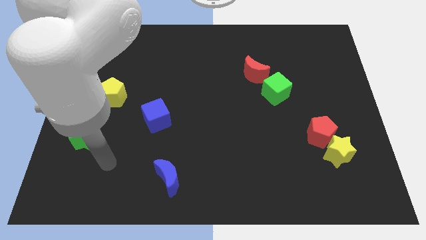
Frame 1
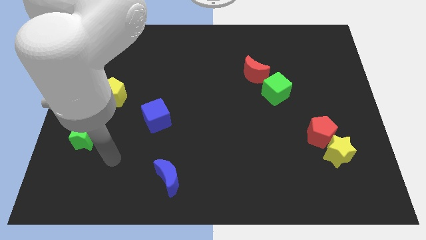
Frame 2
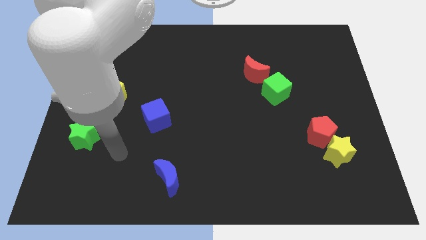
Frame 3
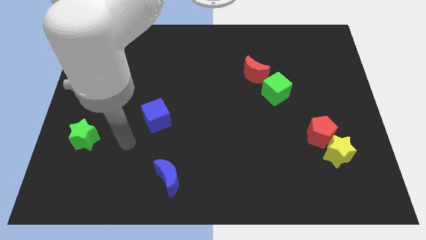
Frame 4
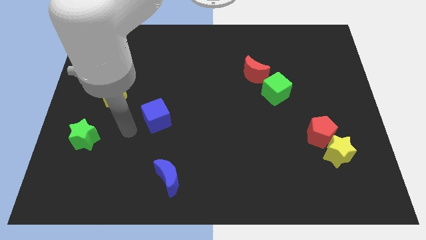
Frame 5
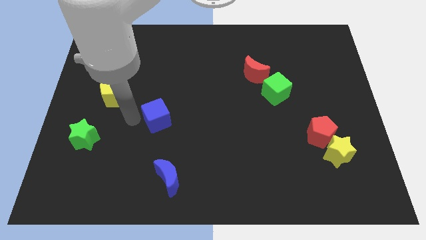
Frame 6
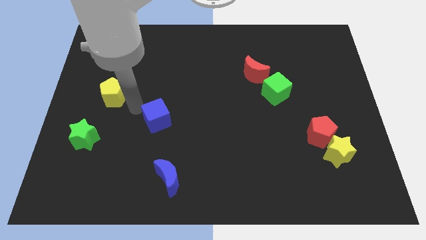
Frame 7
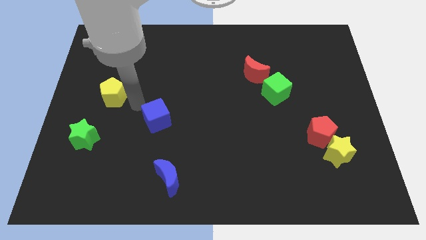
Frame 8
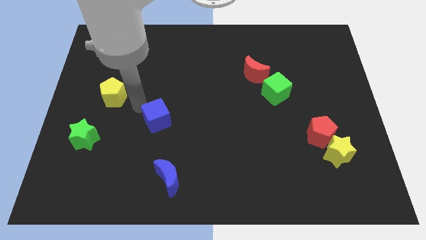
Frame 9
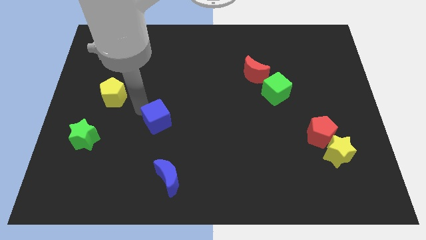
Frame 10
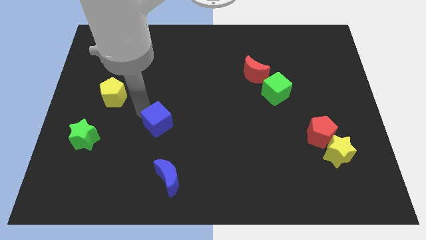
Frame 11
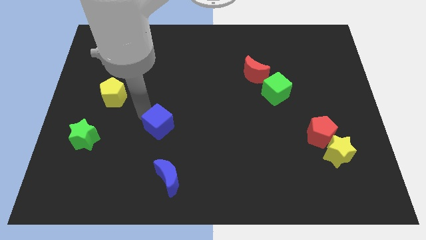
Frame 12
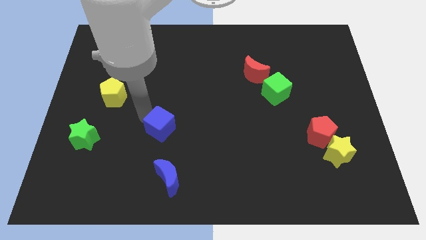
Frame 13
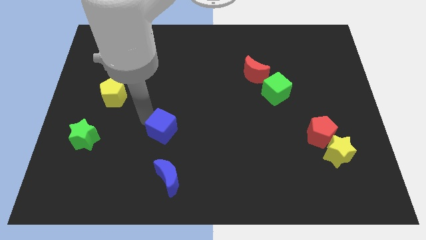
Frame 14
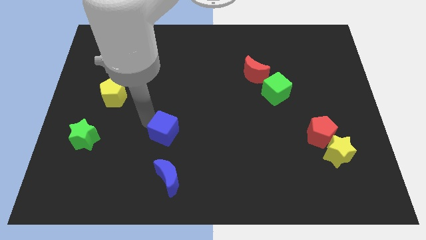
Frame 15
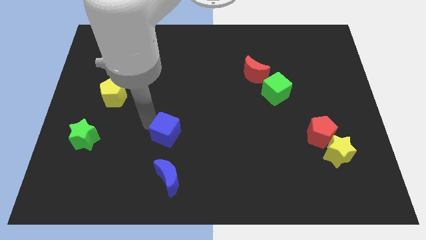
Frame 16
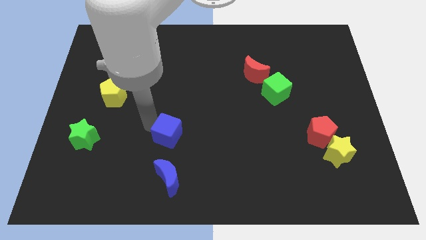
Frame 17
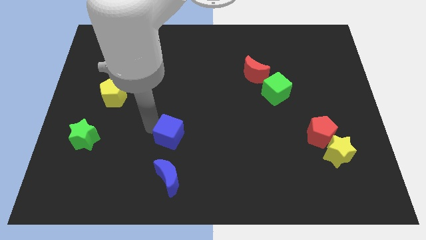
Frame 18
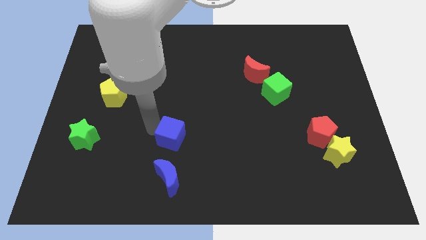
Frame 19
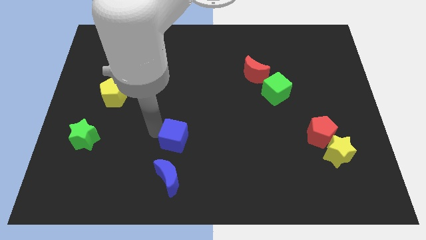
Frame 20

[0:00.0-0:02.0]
move the blue cube diagonally down and right a little

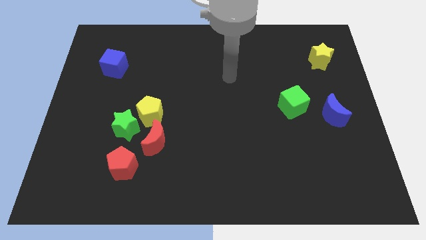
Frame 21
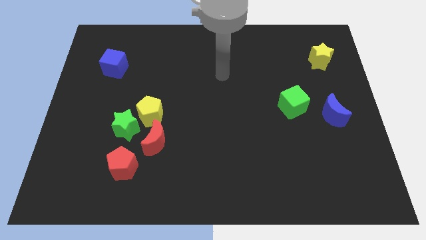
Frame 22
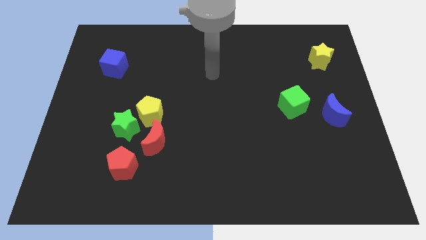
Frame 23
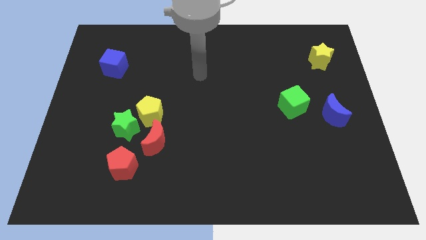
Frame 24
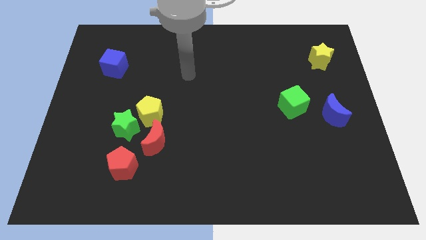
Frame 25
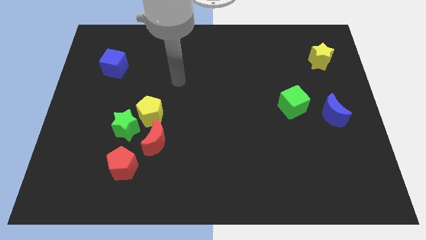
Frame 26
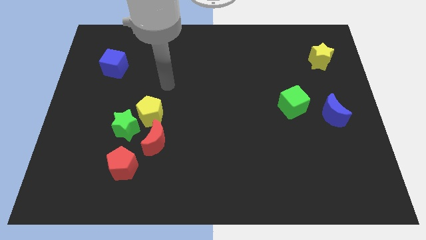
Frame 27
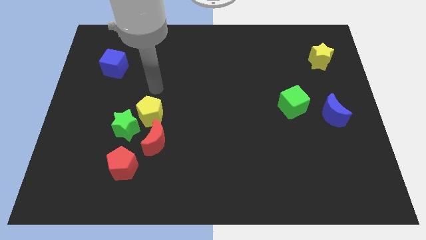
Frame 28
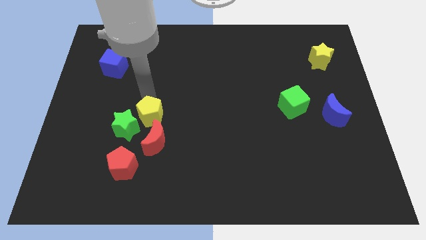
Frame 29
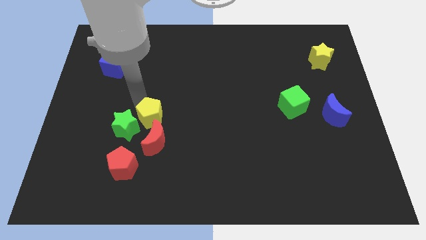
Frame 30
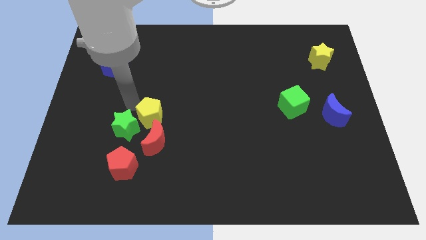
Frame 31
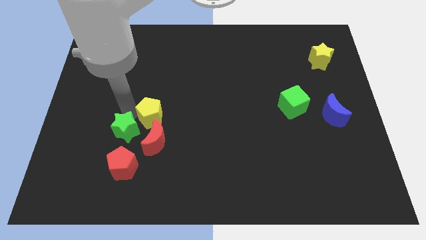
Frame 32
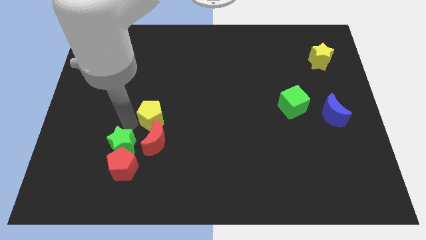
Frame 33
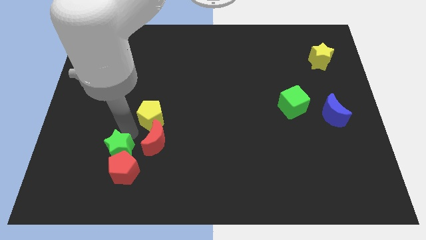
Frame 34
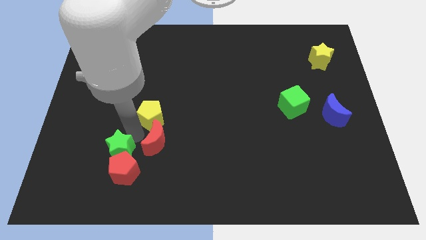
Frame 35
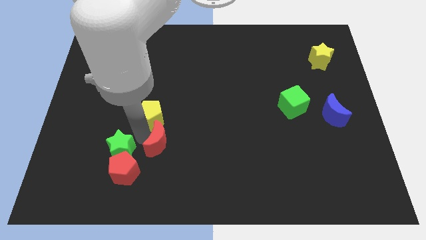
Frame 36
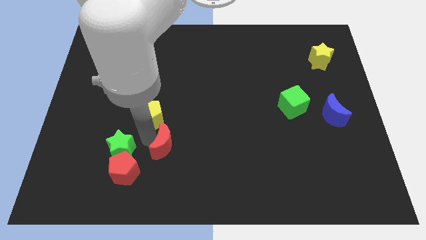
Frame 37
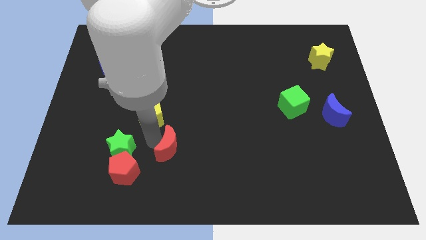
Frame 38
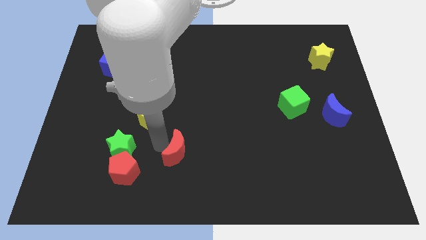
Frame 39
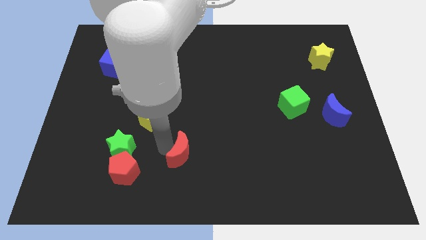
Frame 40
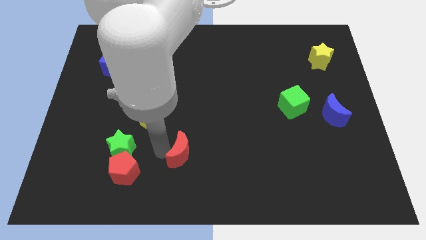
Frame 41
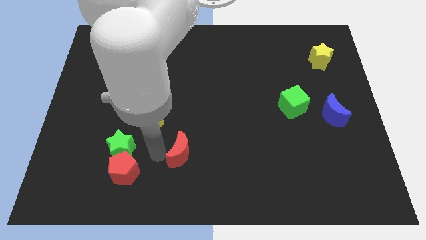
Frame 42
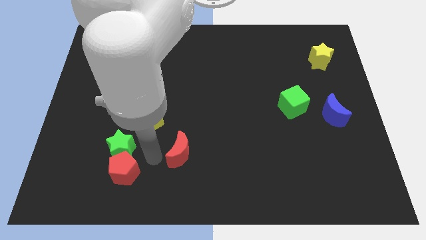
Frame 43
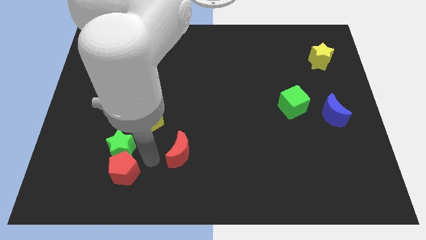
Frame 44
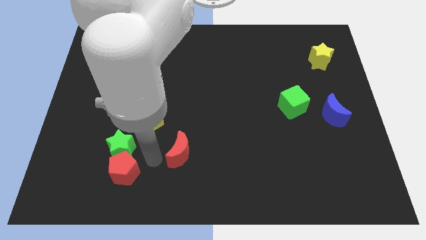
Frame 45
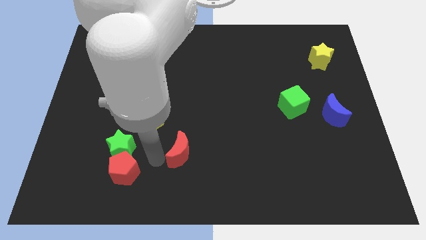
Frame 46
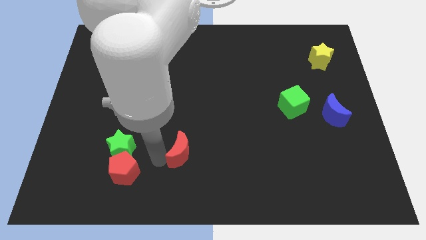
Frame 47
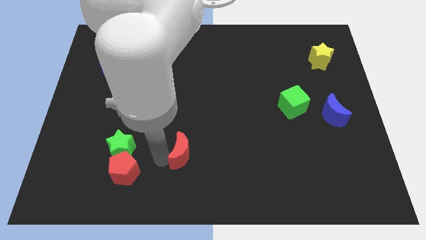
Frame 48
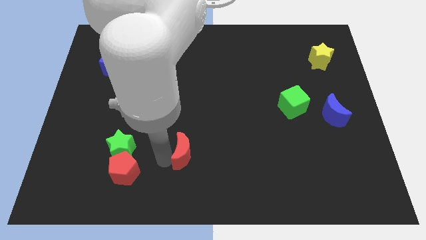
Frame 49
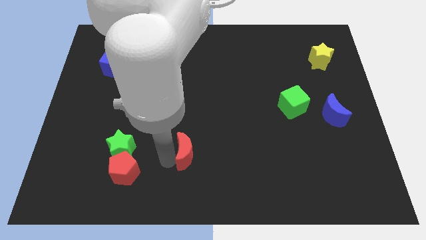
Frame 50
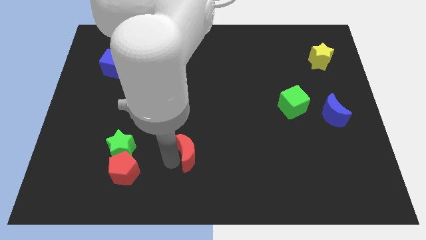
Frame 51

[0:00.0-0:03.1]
slightly push the red moon right

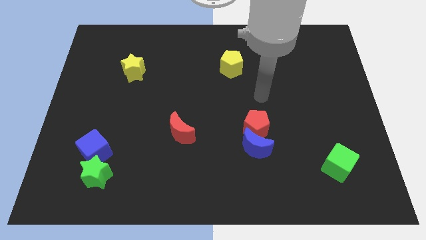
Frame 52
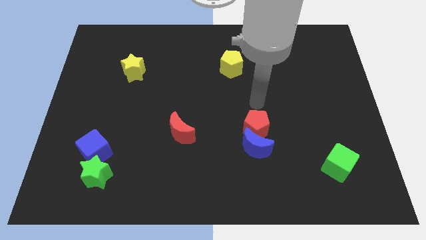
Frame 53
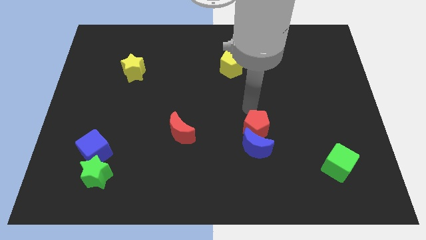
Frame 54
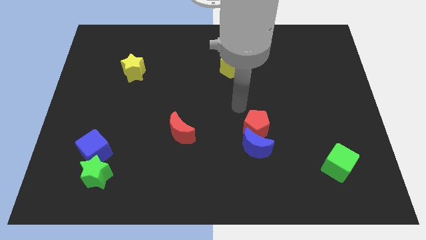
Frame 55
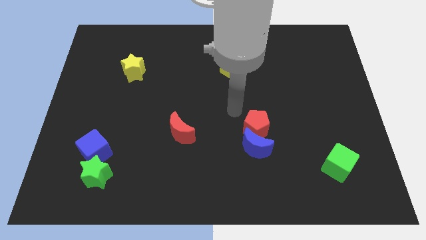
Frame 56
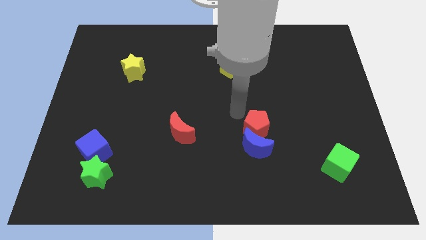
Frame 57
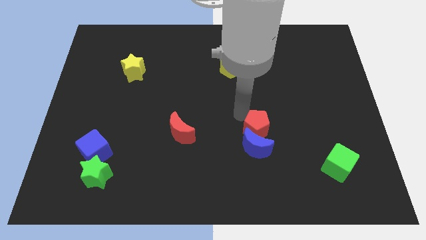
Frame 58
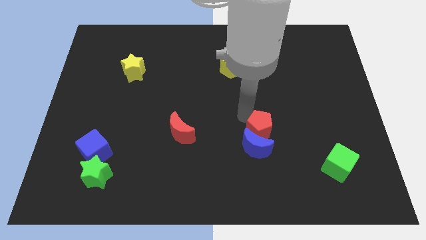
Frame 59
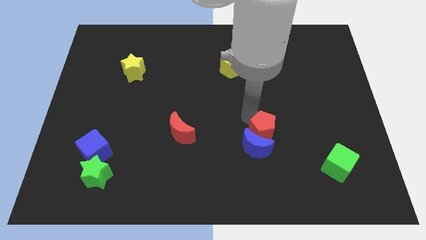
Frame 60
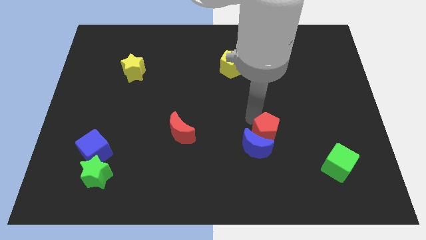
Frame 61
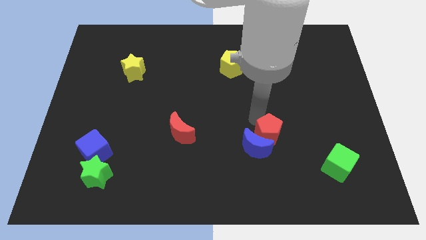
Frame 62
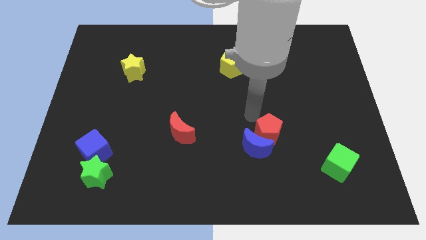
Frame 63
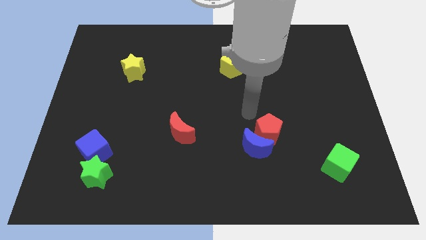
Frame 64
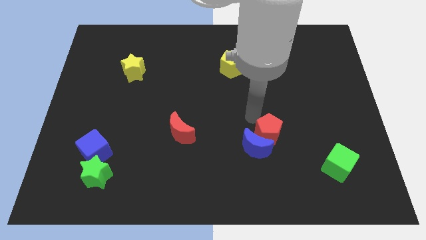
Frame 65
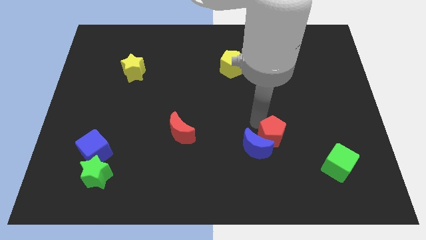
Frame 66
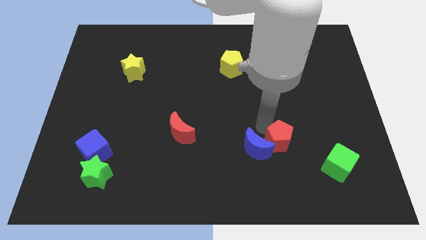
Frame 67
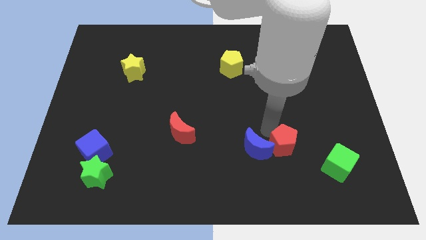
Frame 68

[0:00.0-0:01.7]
move the red pentagon a little bit diagonally downwards and to the right

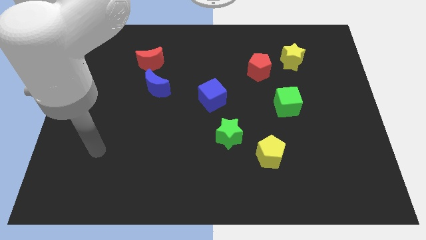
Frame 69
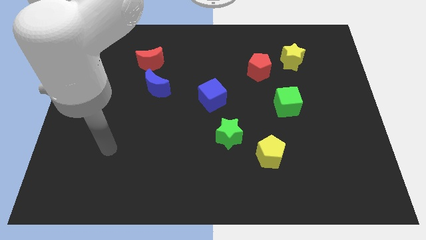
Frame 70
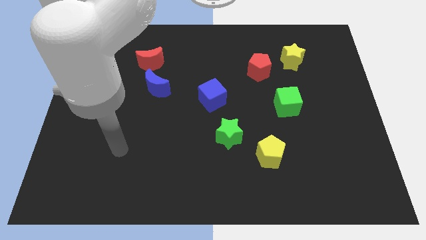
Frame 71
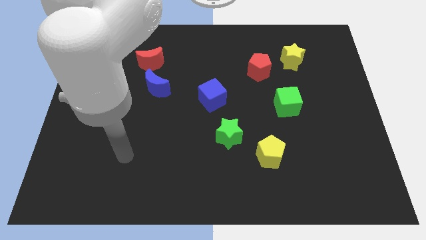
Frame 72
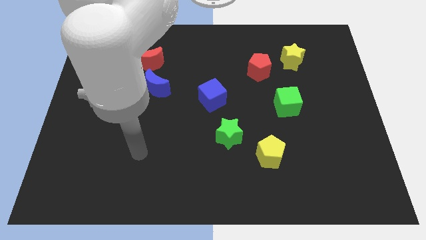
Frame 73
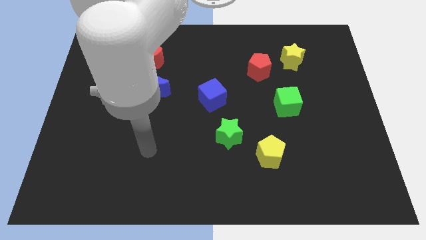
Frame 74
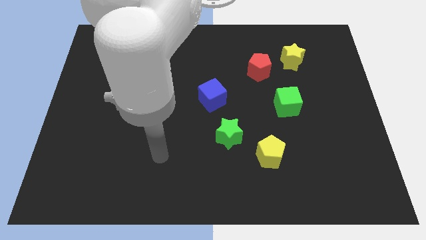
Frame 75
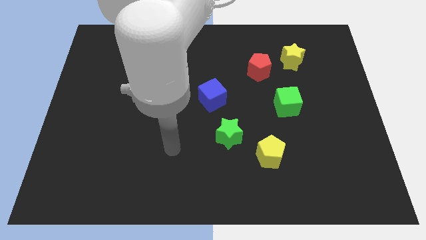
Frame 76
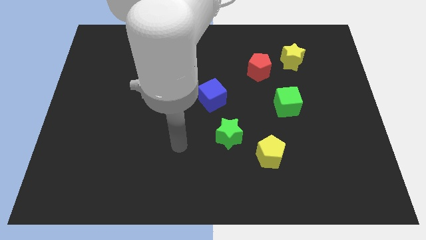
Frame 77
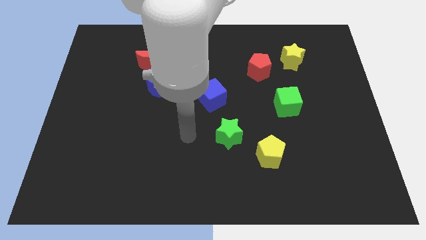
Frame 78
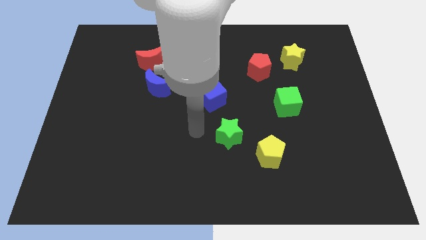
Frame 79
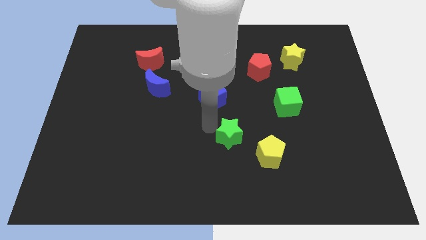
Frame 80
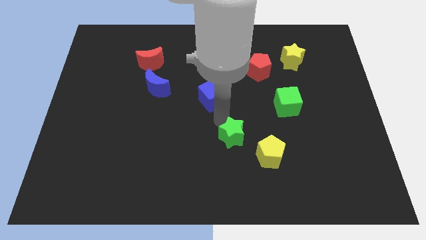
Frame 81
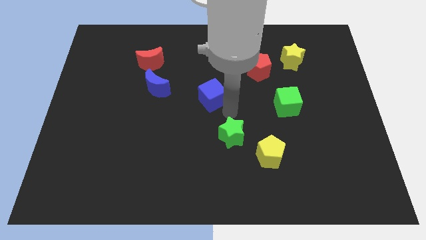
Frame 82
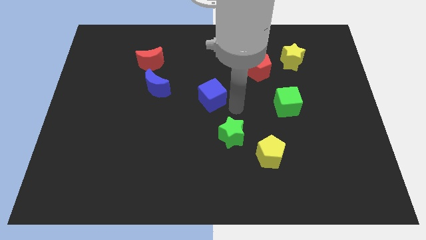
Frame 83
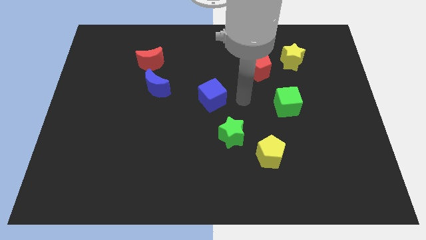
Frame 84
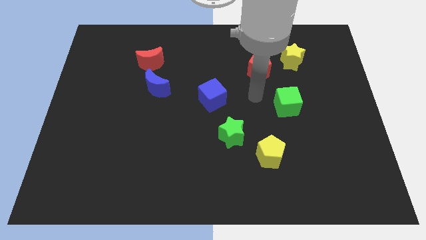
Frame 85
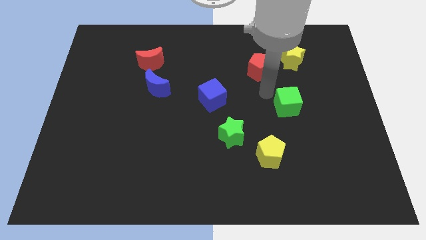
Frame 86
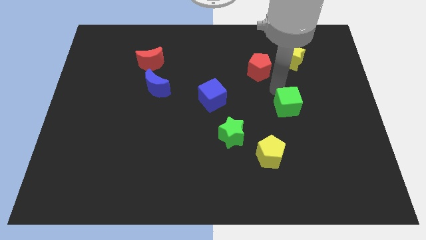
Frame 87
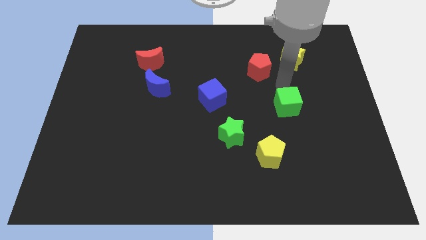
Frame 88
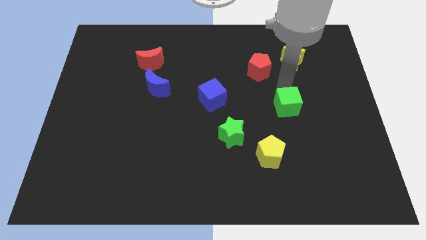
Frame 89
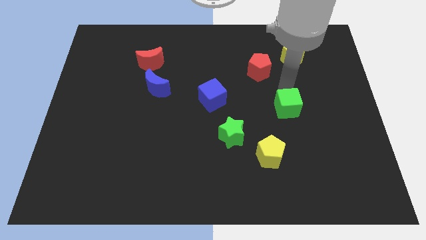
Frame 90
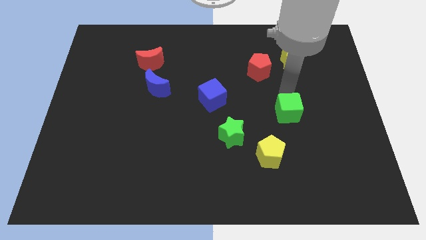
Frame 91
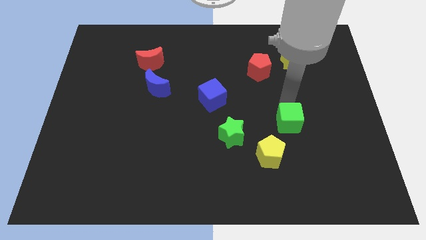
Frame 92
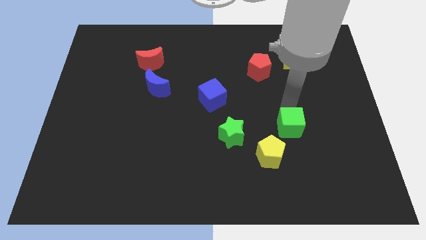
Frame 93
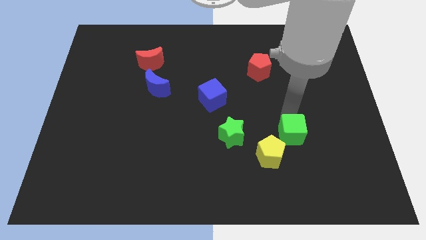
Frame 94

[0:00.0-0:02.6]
slightly slide the green cube down
